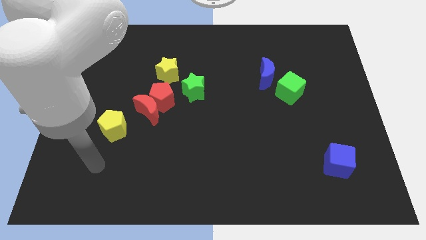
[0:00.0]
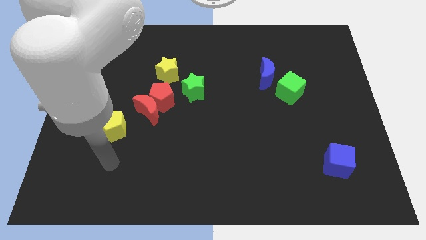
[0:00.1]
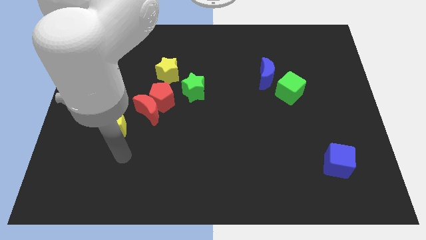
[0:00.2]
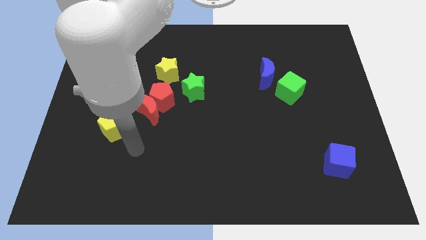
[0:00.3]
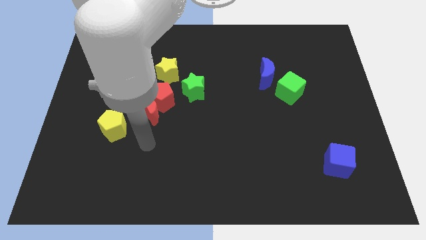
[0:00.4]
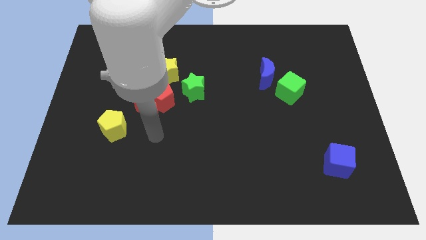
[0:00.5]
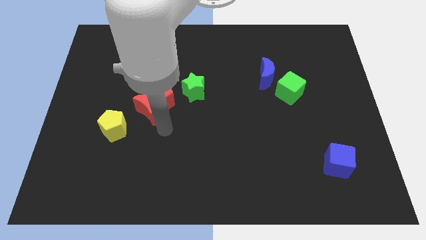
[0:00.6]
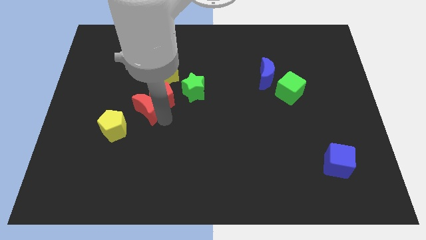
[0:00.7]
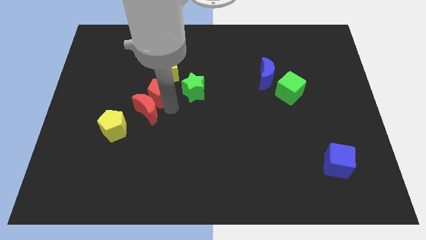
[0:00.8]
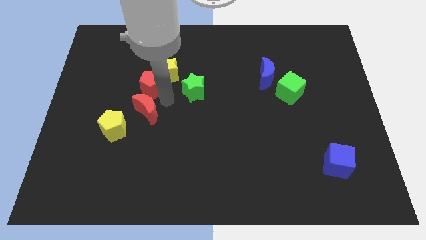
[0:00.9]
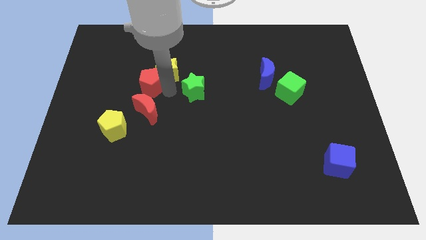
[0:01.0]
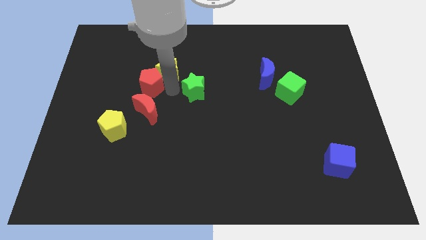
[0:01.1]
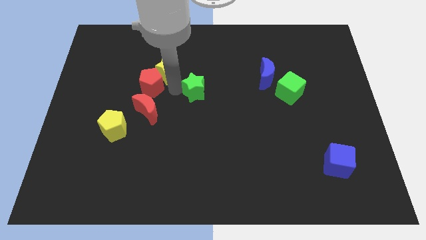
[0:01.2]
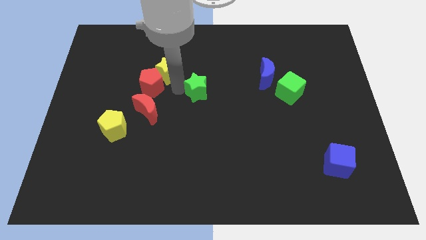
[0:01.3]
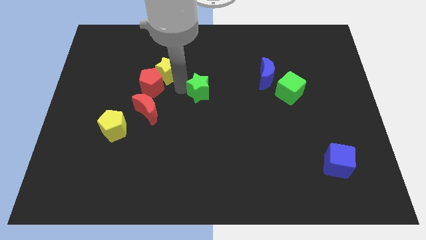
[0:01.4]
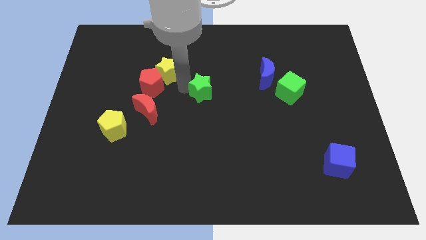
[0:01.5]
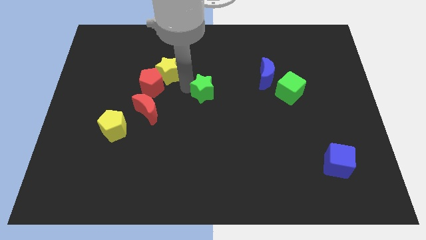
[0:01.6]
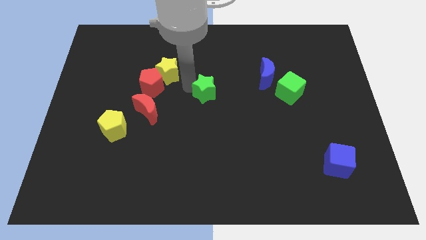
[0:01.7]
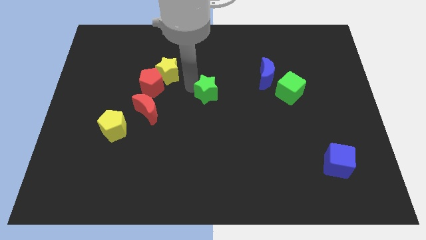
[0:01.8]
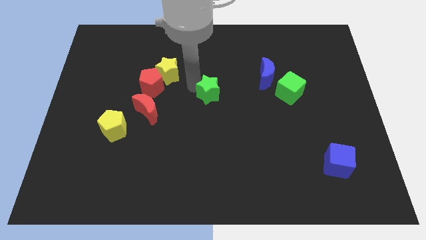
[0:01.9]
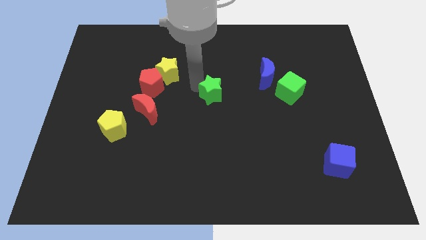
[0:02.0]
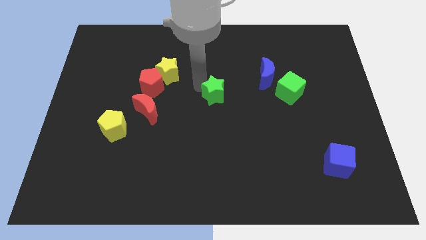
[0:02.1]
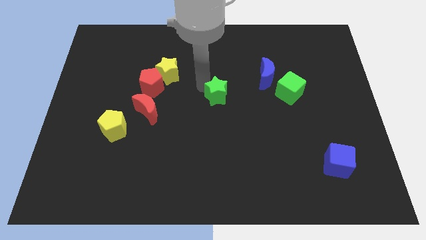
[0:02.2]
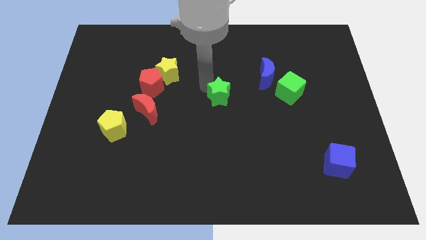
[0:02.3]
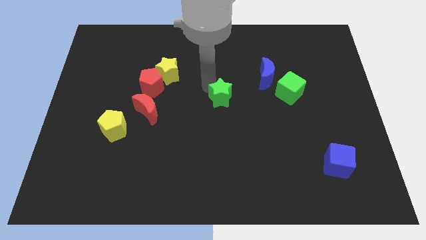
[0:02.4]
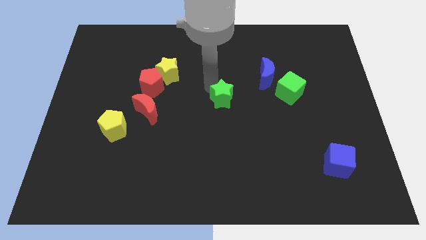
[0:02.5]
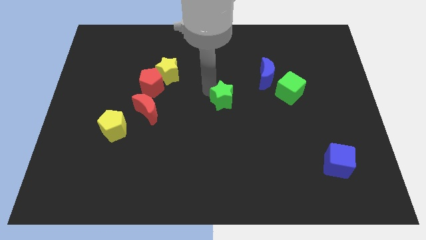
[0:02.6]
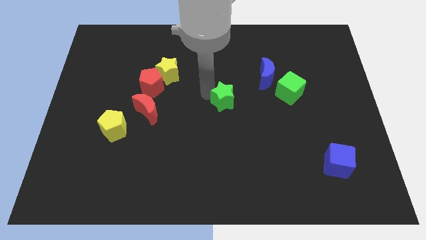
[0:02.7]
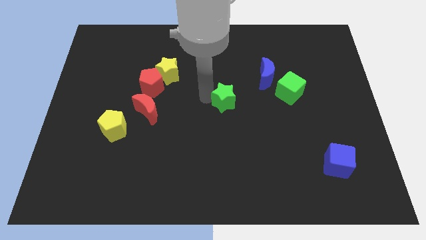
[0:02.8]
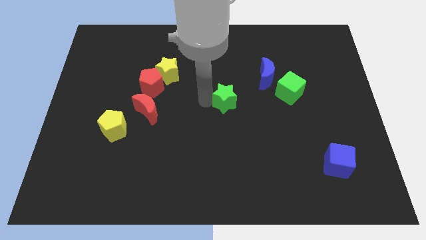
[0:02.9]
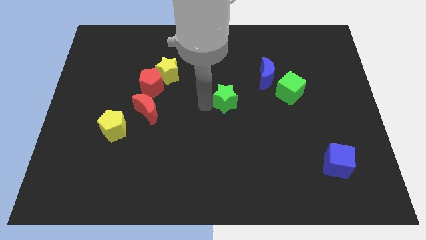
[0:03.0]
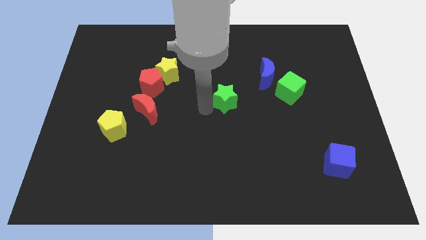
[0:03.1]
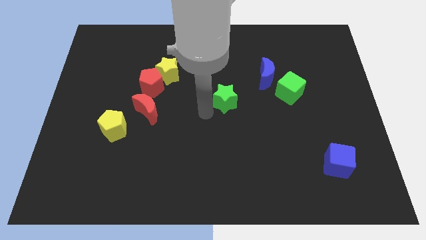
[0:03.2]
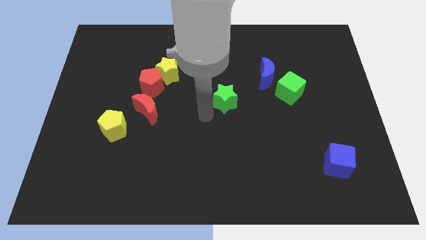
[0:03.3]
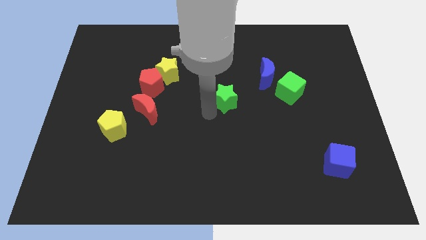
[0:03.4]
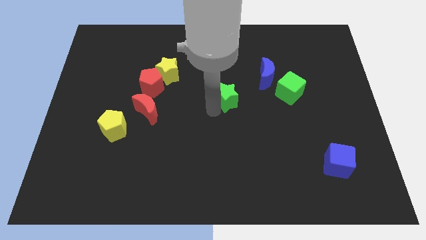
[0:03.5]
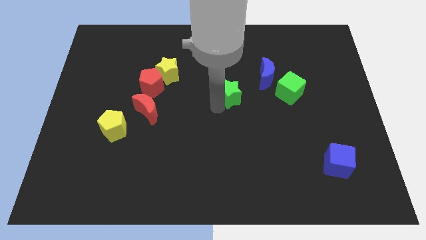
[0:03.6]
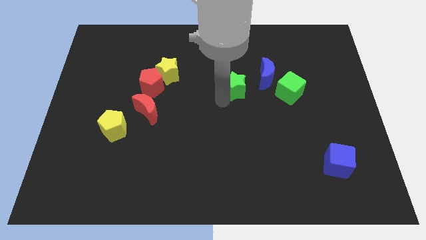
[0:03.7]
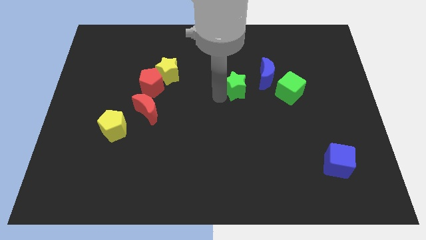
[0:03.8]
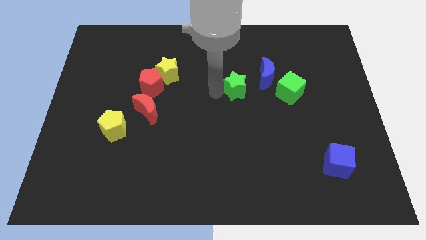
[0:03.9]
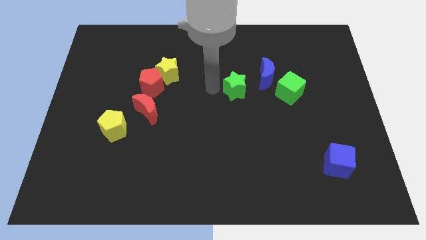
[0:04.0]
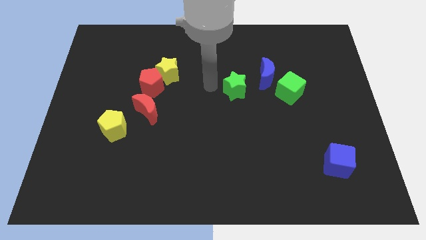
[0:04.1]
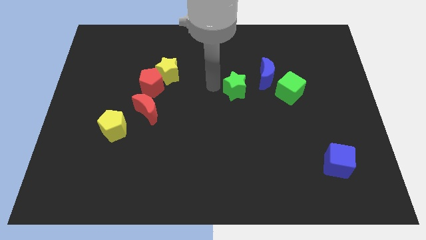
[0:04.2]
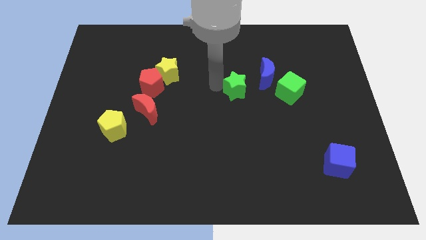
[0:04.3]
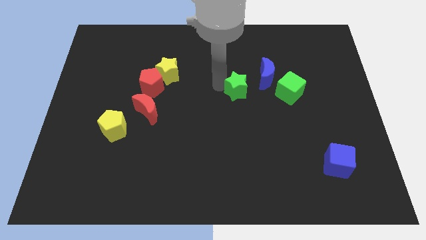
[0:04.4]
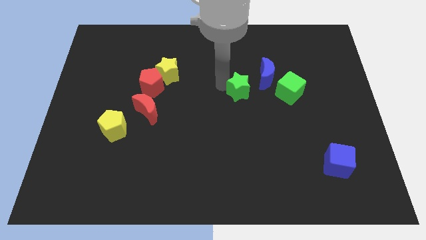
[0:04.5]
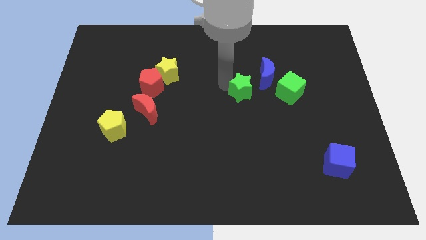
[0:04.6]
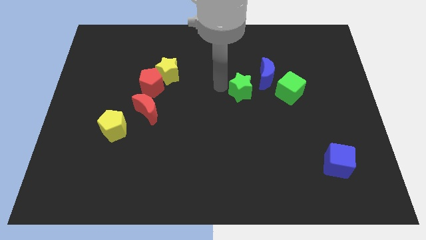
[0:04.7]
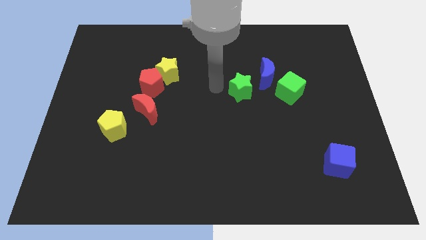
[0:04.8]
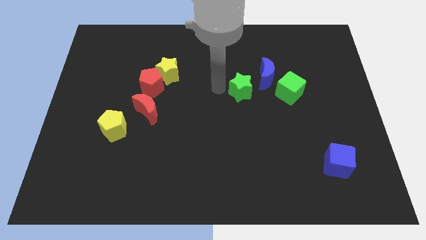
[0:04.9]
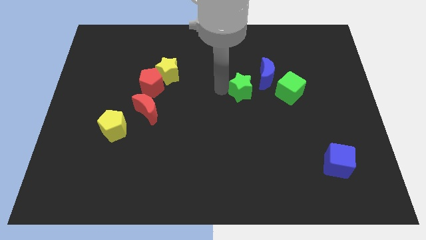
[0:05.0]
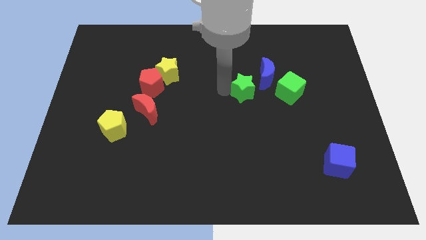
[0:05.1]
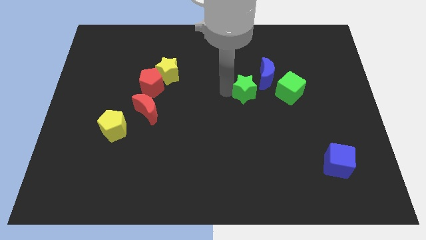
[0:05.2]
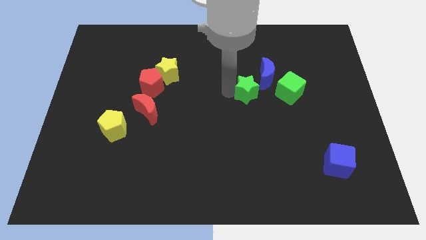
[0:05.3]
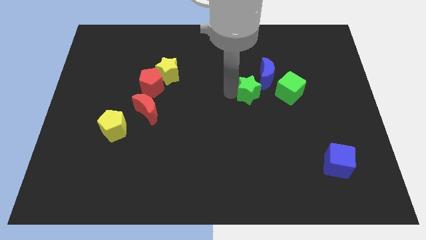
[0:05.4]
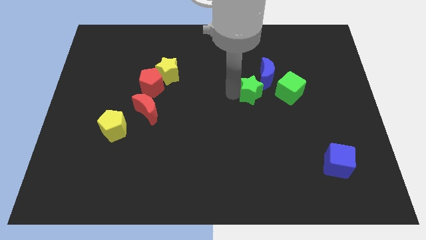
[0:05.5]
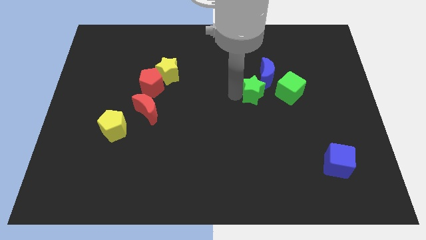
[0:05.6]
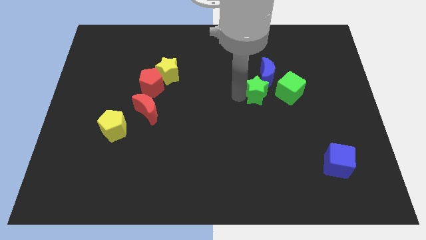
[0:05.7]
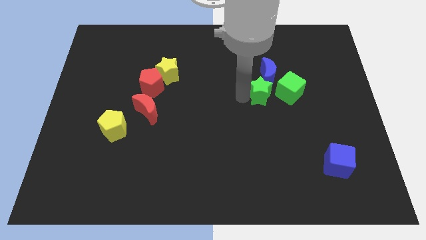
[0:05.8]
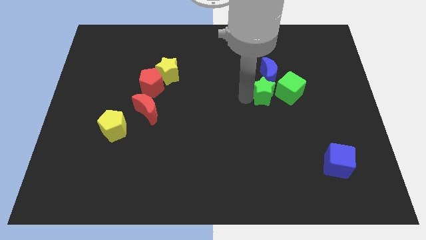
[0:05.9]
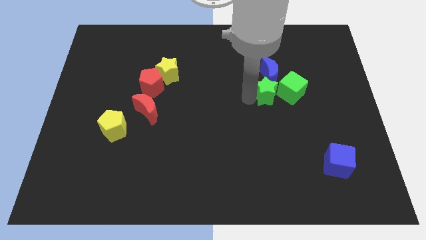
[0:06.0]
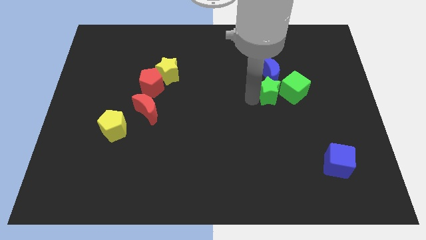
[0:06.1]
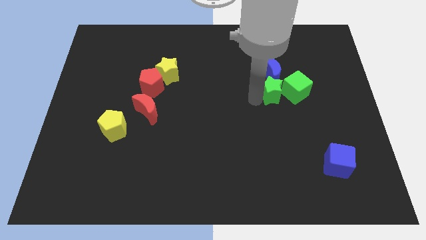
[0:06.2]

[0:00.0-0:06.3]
push the green star to the green cube

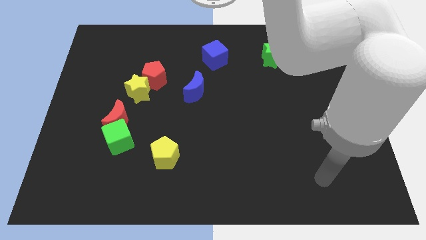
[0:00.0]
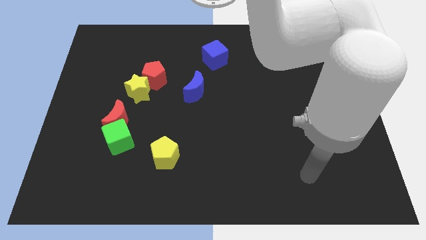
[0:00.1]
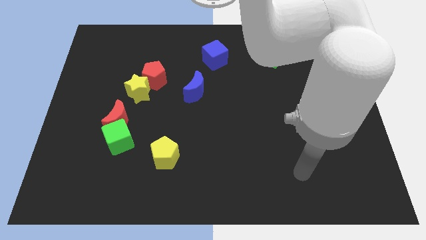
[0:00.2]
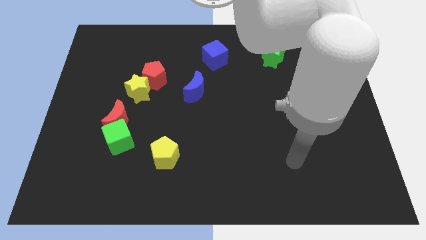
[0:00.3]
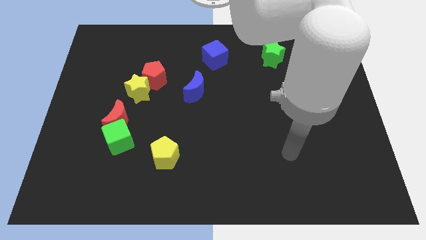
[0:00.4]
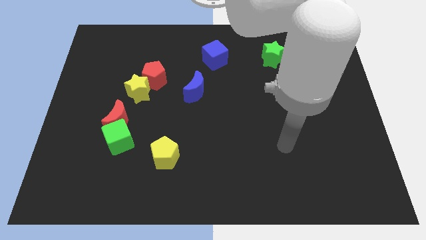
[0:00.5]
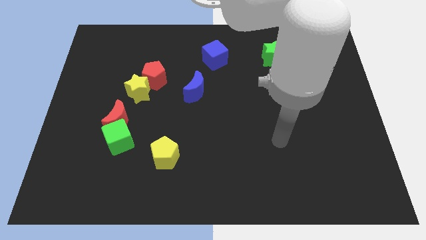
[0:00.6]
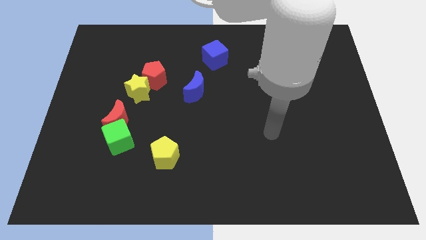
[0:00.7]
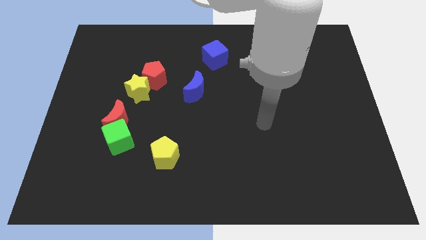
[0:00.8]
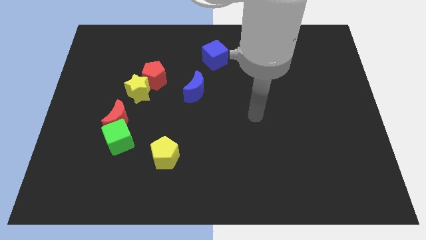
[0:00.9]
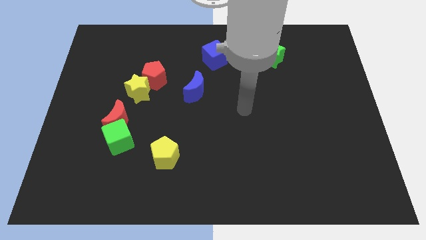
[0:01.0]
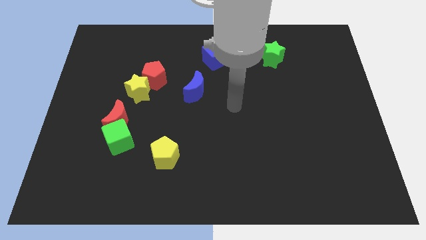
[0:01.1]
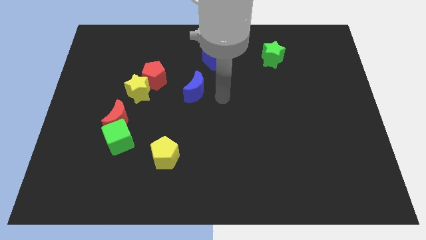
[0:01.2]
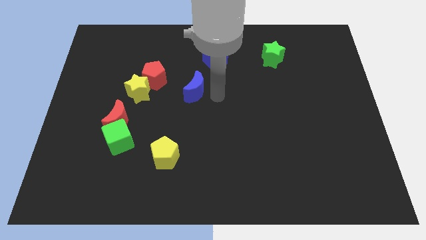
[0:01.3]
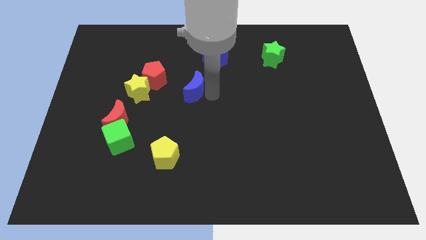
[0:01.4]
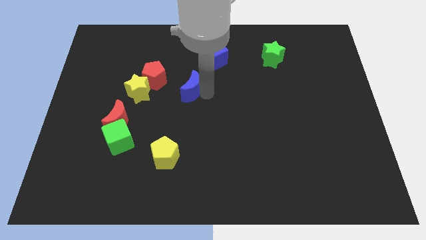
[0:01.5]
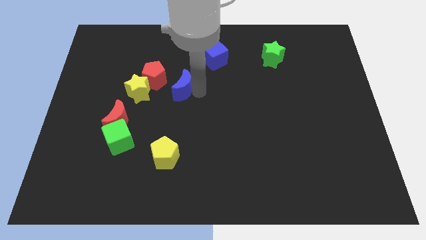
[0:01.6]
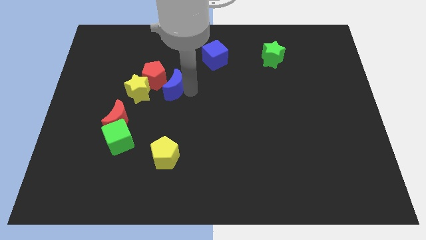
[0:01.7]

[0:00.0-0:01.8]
push the blue moon towards the red pentagon
